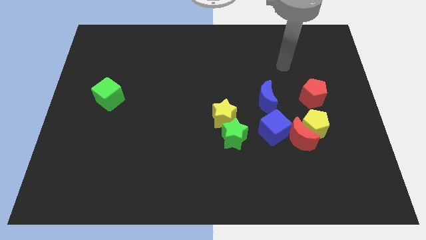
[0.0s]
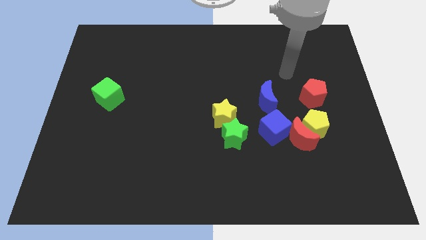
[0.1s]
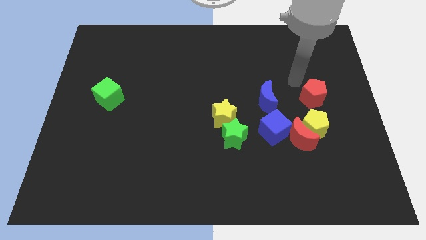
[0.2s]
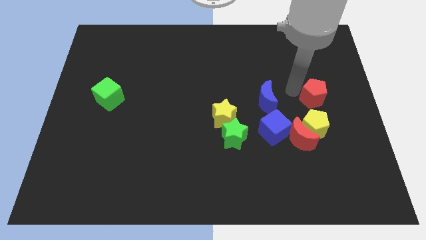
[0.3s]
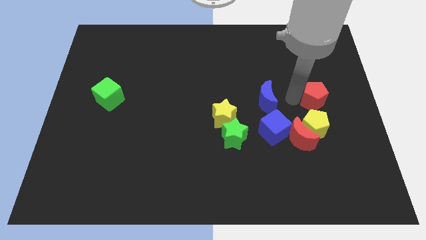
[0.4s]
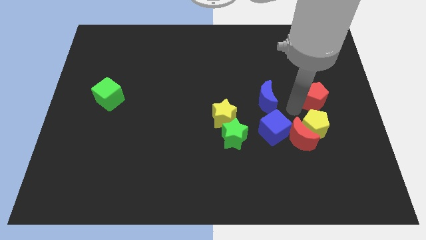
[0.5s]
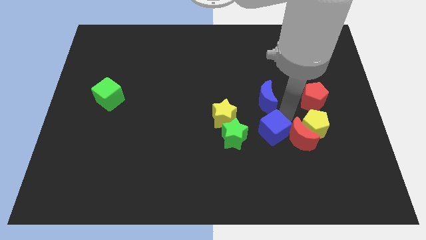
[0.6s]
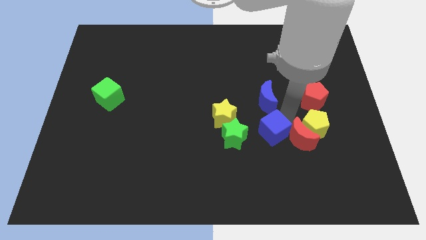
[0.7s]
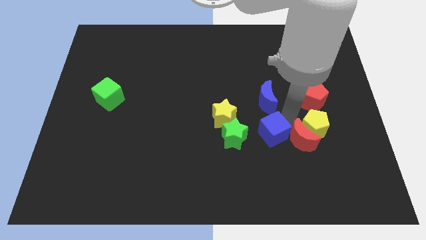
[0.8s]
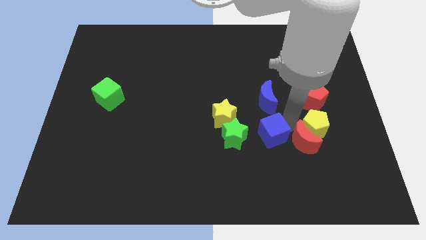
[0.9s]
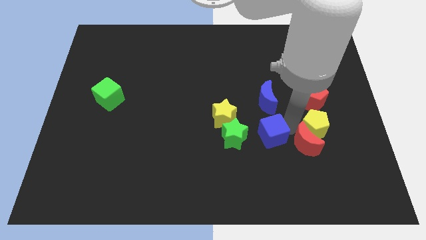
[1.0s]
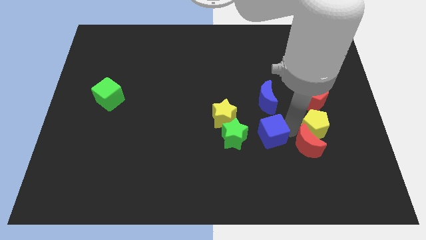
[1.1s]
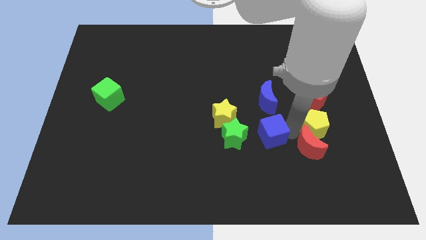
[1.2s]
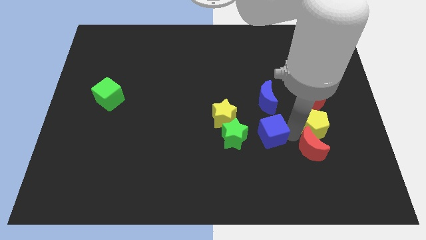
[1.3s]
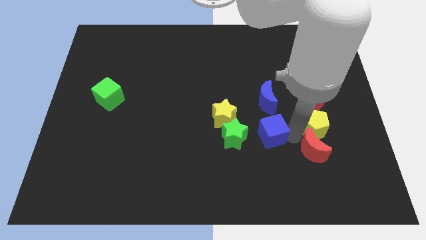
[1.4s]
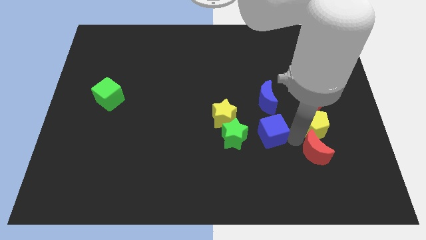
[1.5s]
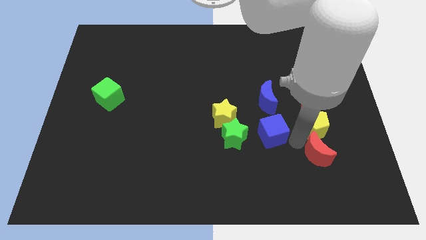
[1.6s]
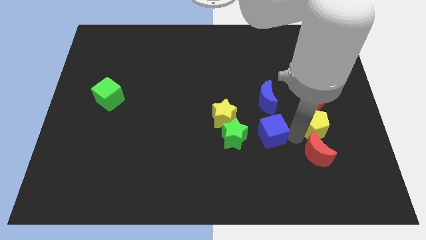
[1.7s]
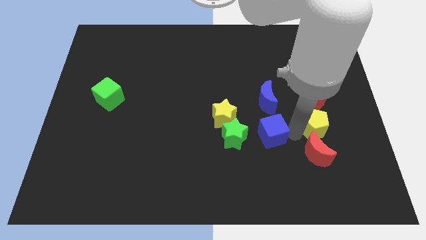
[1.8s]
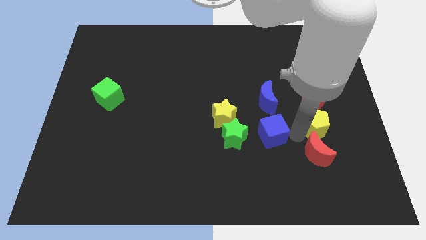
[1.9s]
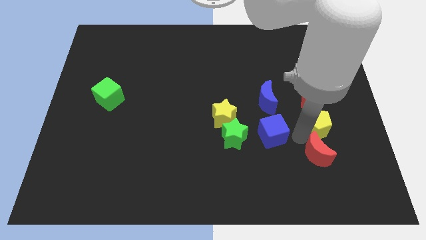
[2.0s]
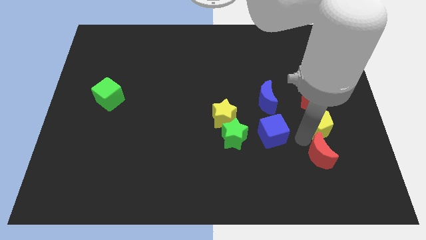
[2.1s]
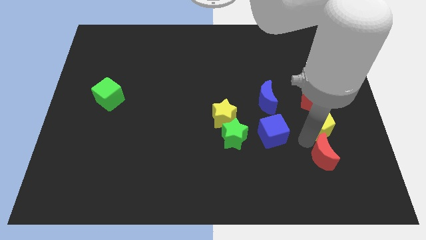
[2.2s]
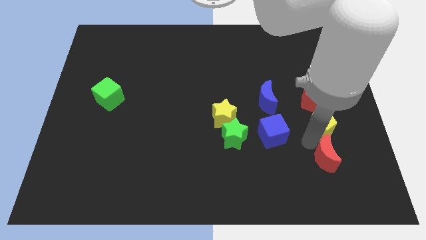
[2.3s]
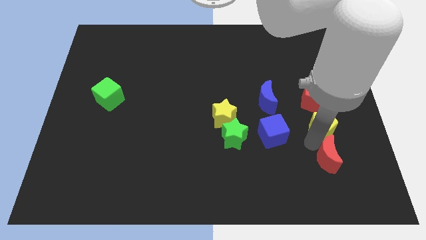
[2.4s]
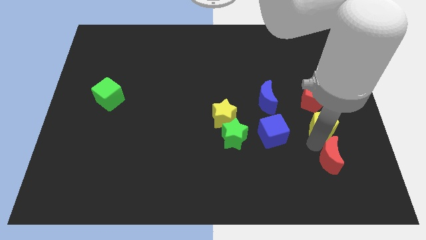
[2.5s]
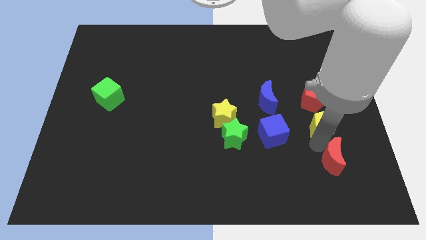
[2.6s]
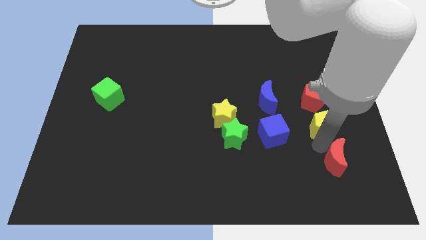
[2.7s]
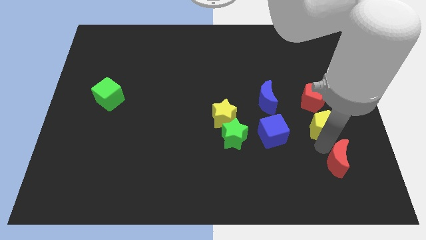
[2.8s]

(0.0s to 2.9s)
pull the red moon apart from the yellow pentagon and blue cube

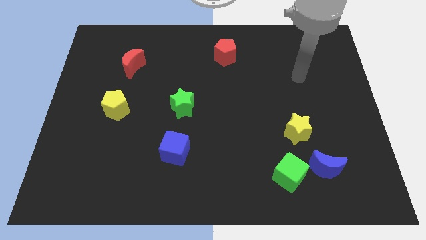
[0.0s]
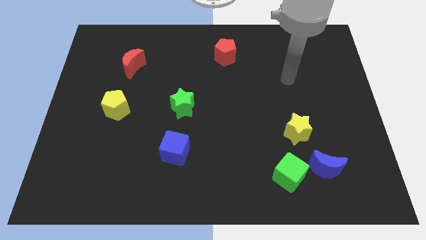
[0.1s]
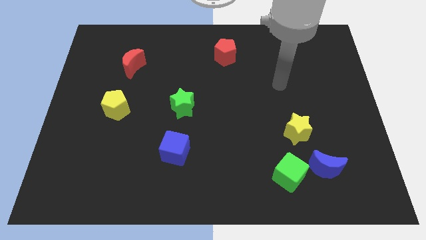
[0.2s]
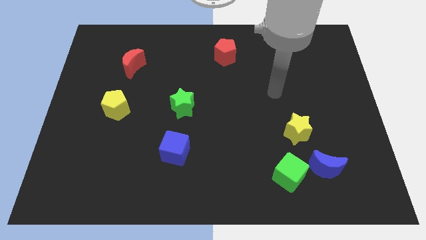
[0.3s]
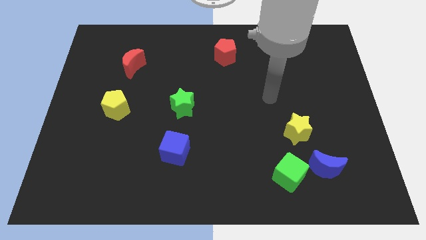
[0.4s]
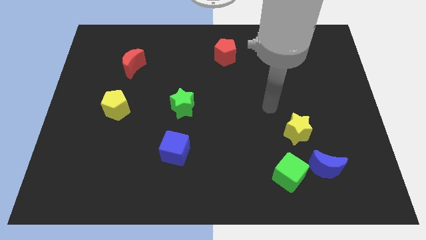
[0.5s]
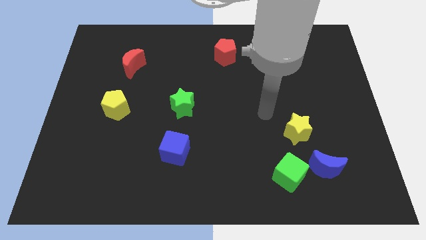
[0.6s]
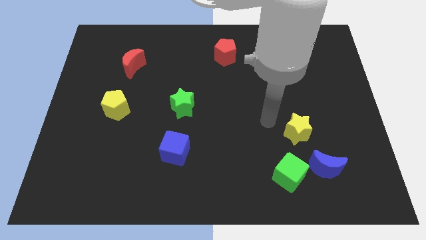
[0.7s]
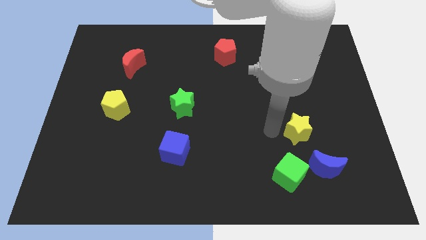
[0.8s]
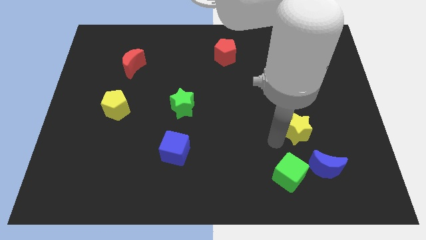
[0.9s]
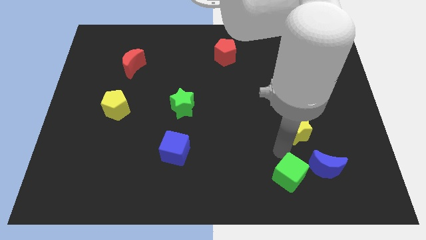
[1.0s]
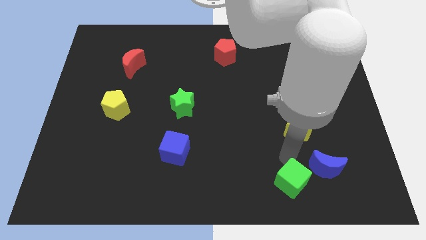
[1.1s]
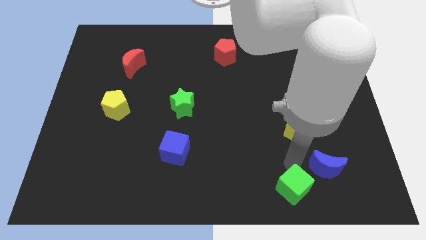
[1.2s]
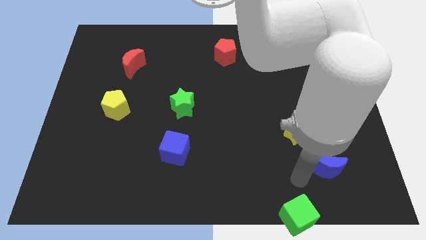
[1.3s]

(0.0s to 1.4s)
separate the blue moon from the green cube

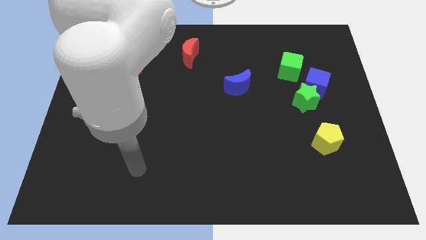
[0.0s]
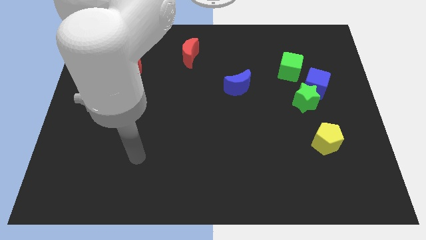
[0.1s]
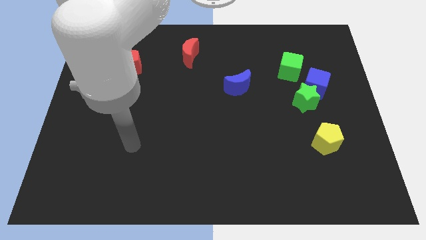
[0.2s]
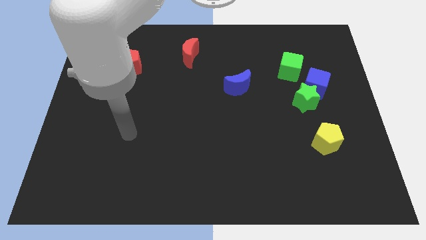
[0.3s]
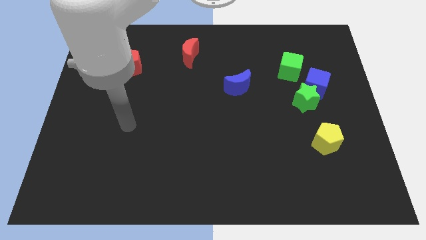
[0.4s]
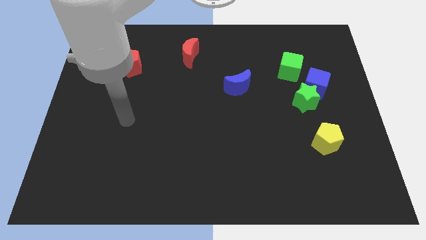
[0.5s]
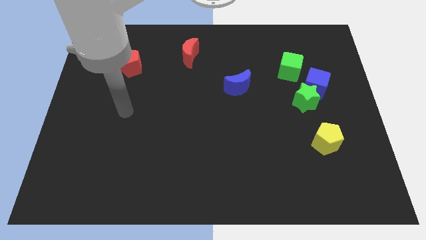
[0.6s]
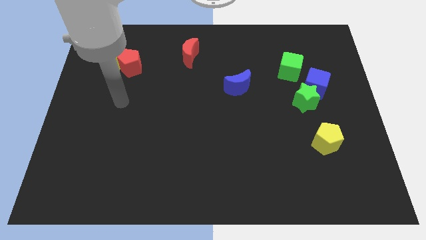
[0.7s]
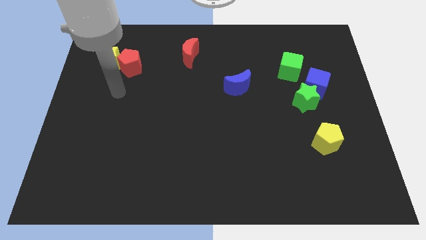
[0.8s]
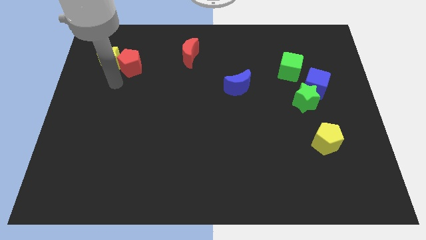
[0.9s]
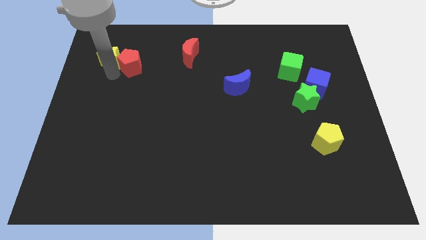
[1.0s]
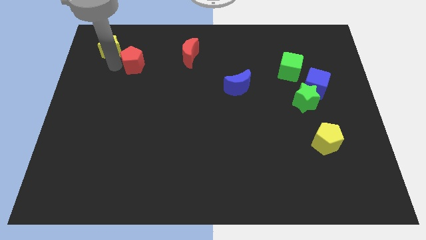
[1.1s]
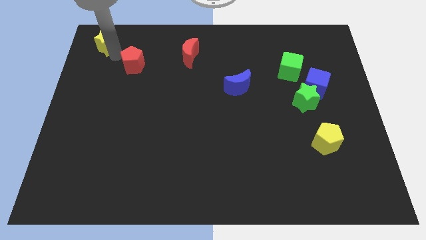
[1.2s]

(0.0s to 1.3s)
move the red pentagon away from the yellow star

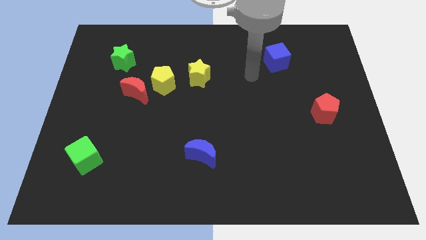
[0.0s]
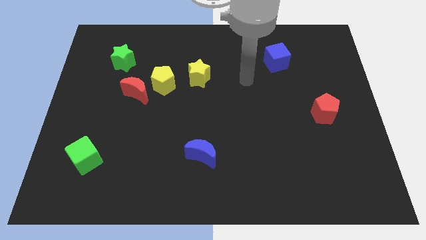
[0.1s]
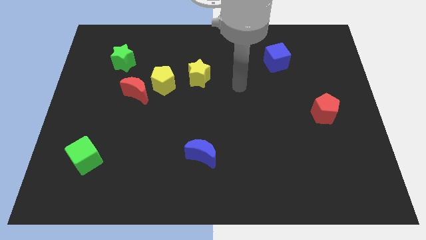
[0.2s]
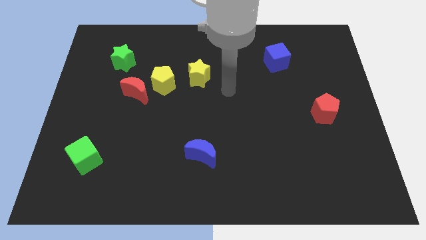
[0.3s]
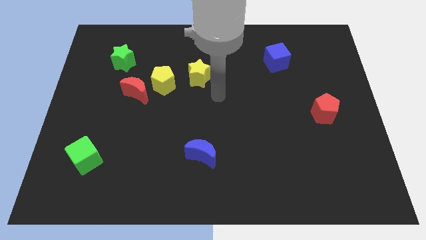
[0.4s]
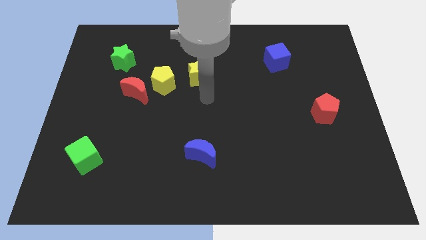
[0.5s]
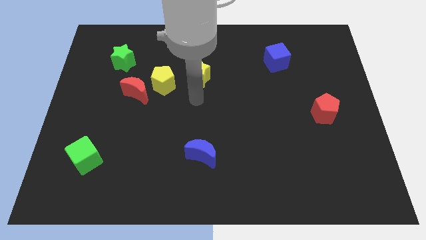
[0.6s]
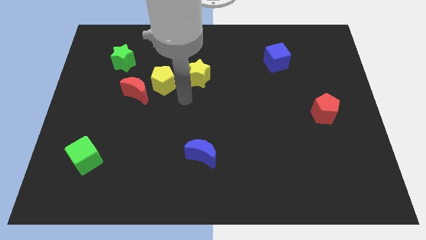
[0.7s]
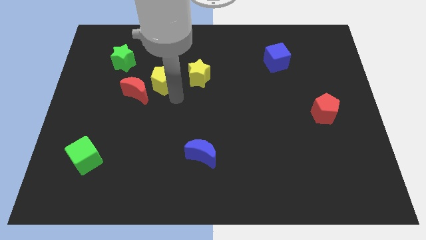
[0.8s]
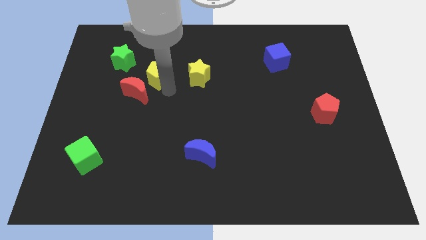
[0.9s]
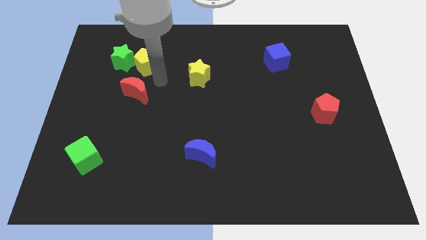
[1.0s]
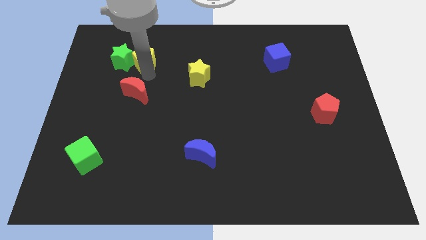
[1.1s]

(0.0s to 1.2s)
move the red moon away from the yellow pentagon

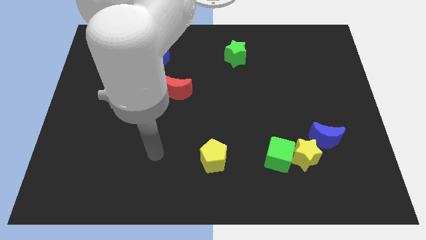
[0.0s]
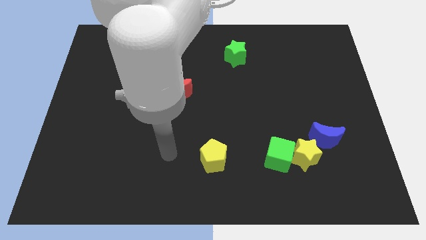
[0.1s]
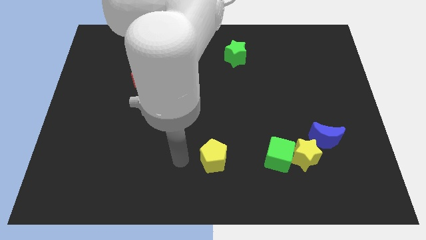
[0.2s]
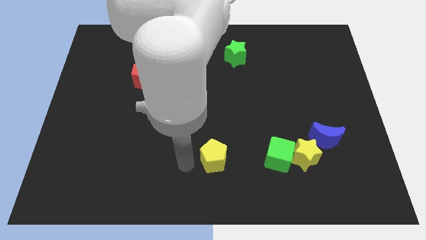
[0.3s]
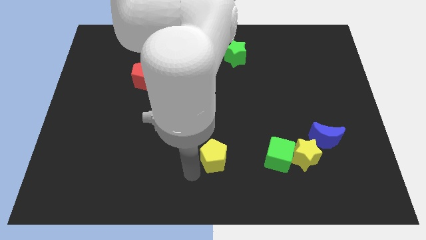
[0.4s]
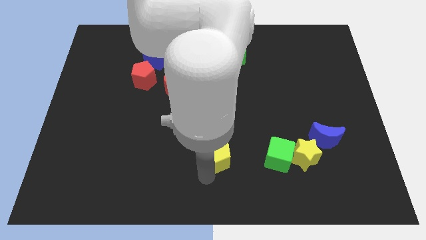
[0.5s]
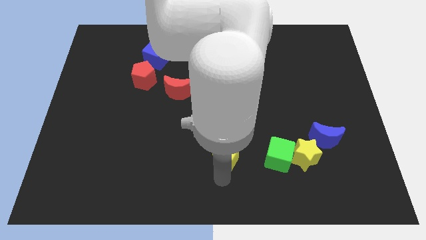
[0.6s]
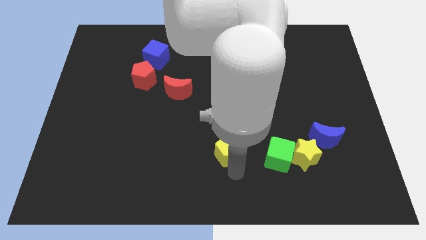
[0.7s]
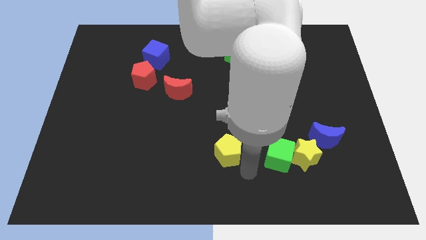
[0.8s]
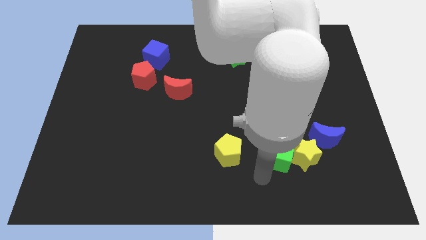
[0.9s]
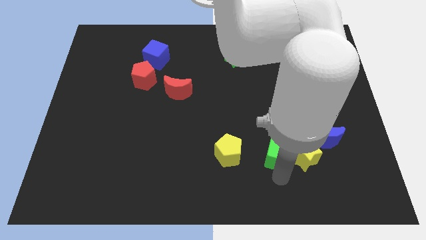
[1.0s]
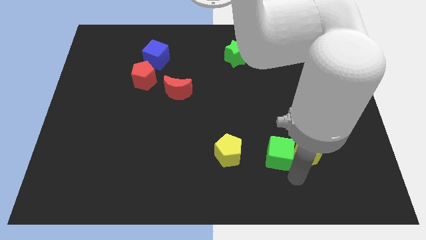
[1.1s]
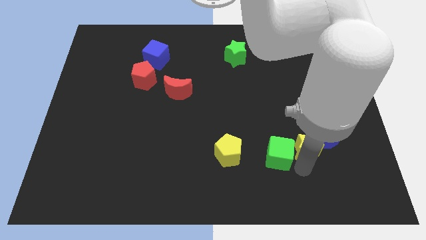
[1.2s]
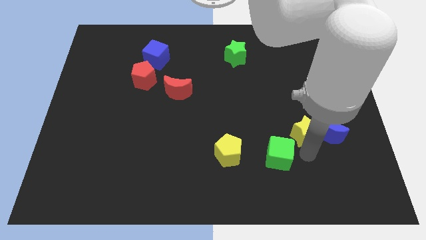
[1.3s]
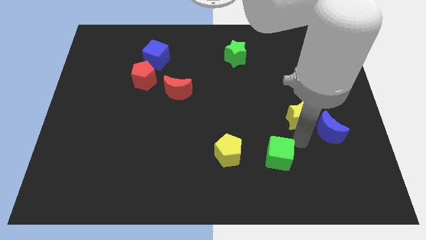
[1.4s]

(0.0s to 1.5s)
separate the green cube from the yellow star

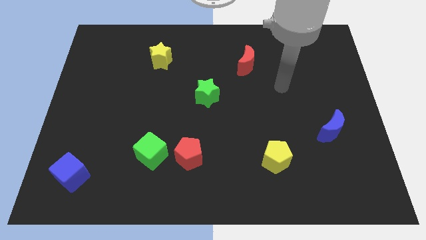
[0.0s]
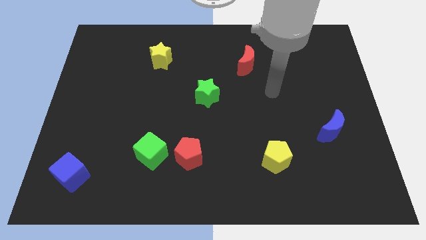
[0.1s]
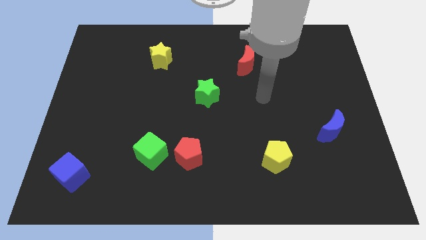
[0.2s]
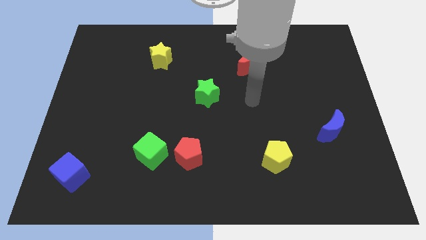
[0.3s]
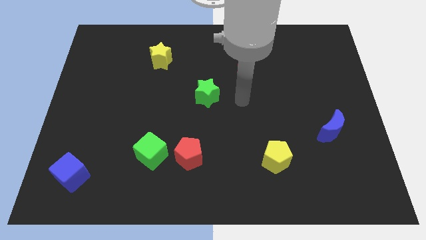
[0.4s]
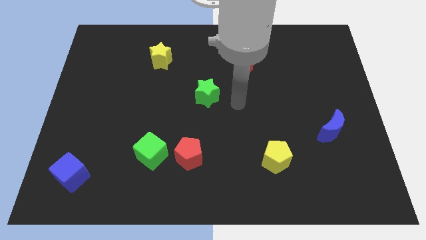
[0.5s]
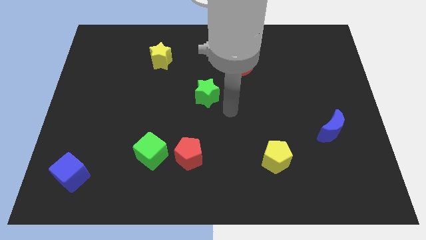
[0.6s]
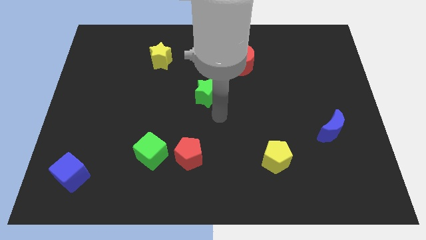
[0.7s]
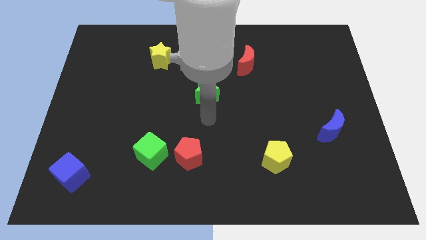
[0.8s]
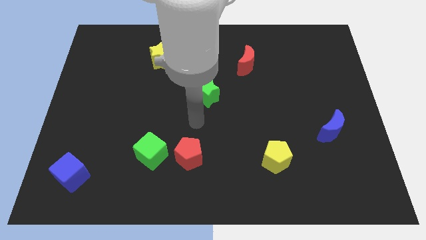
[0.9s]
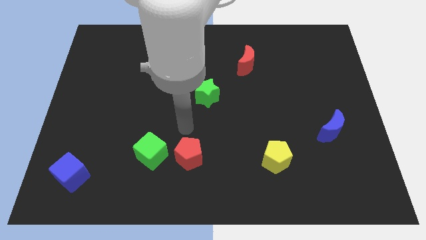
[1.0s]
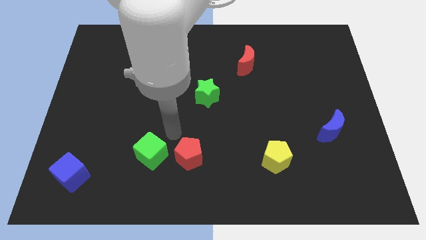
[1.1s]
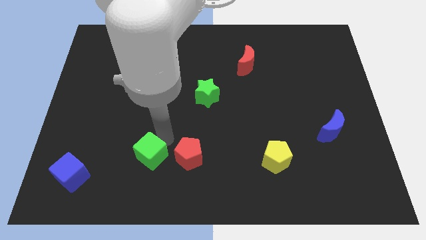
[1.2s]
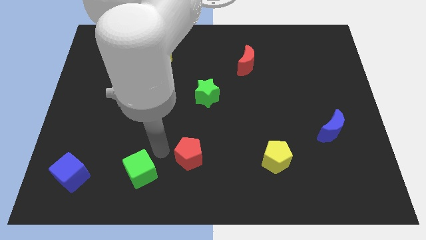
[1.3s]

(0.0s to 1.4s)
separate the red pentagon from the green cube
